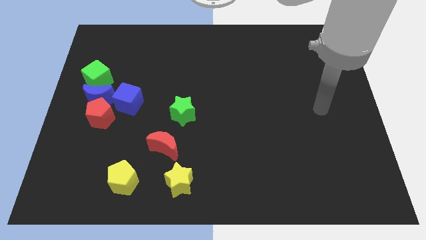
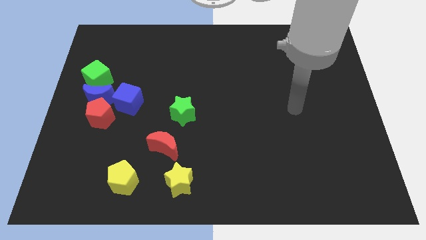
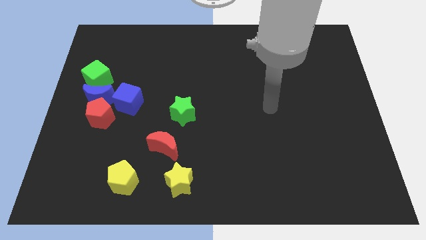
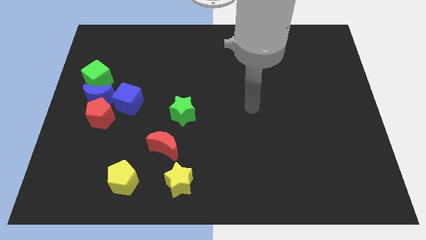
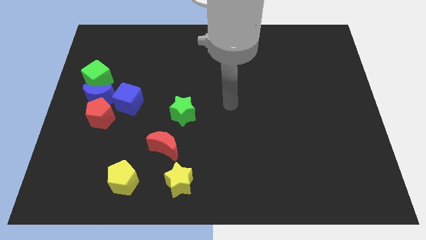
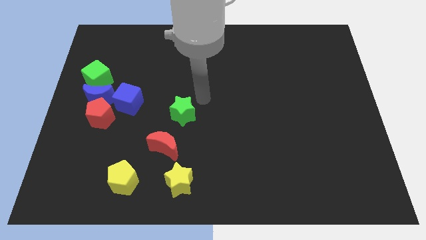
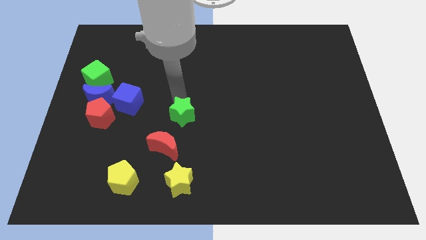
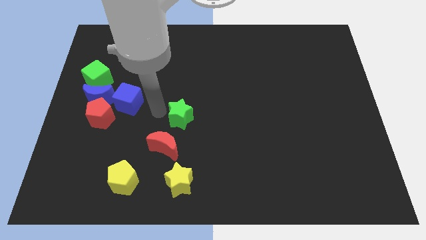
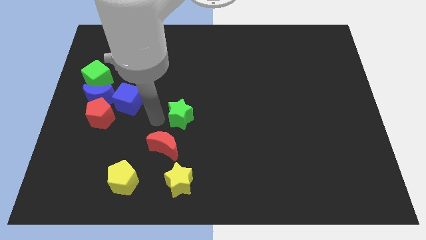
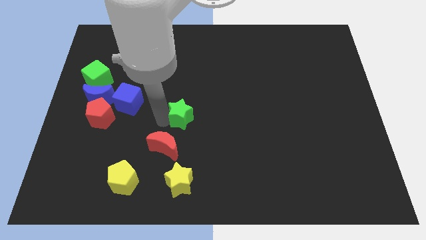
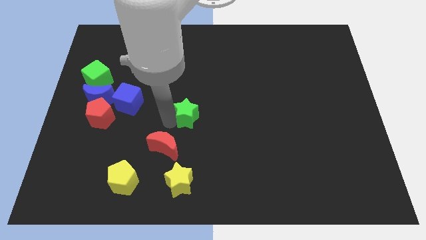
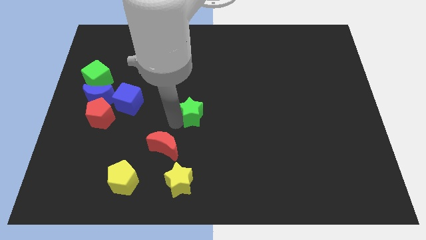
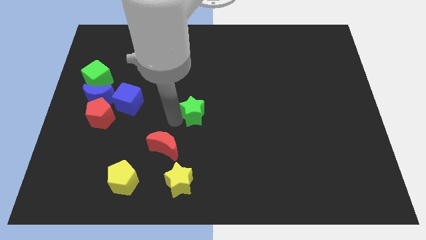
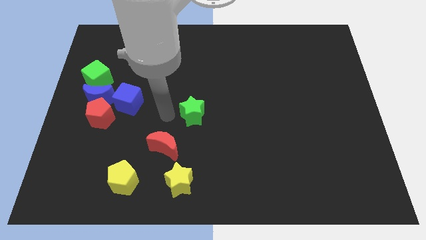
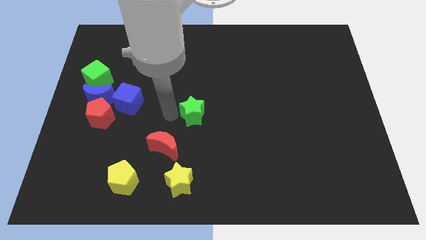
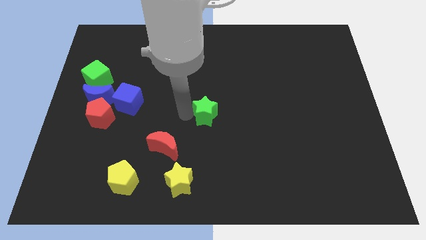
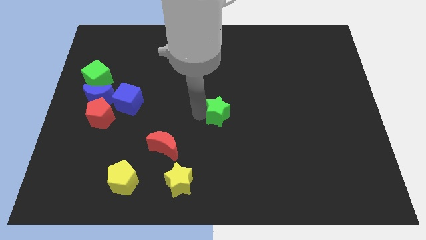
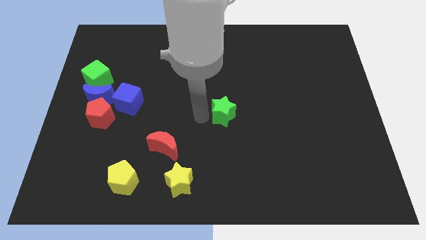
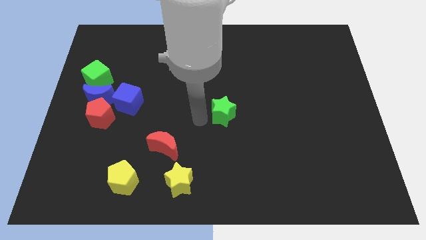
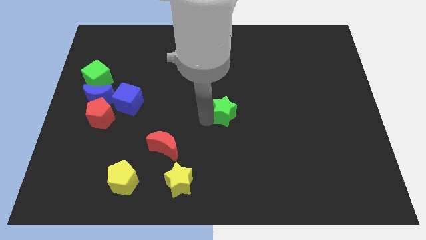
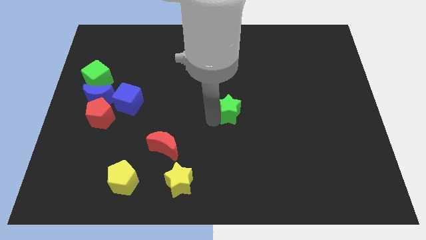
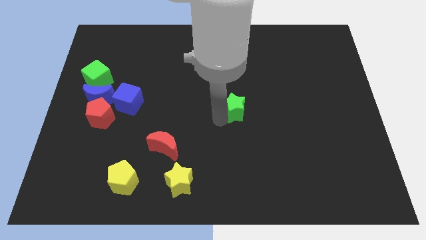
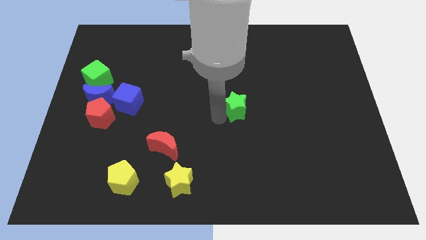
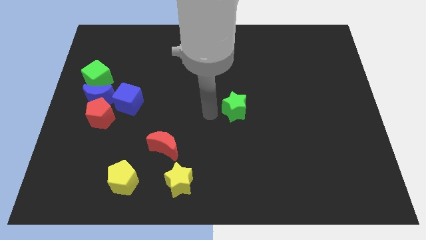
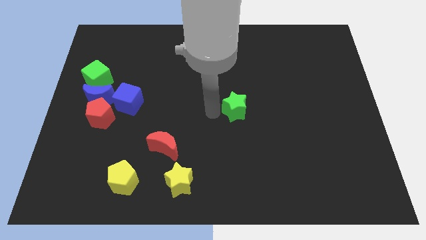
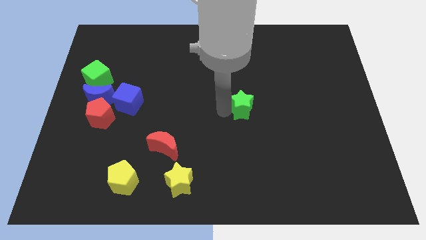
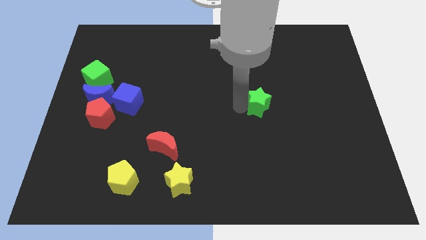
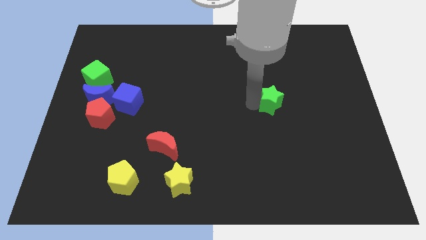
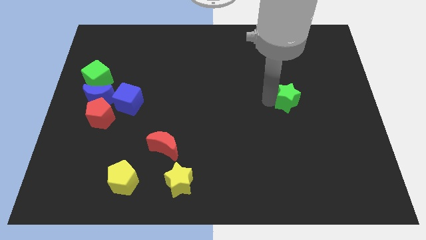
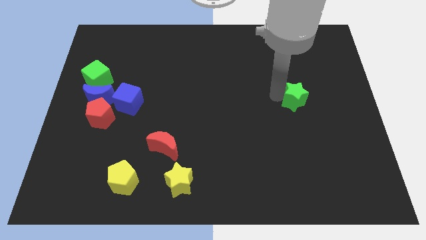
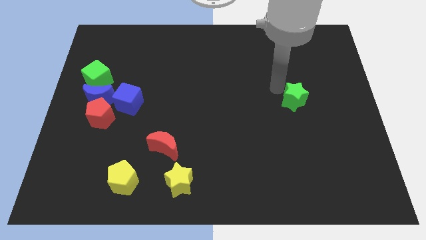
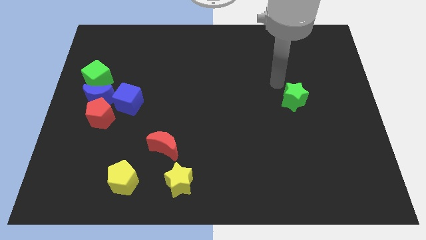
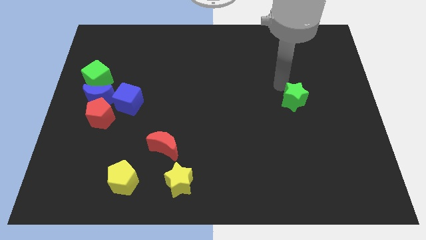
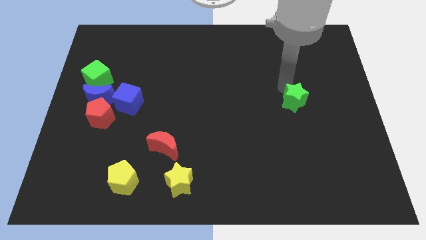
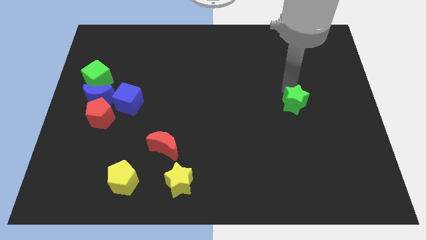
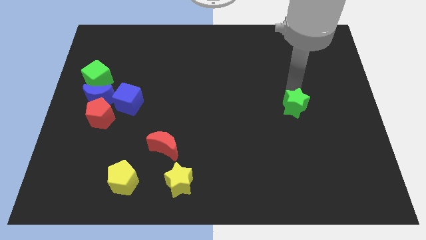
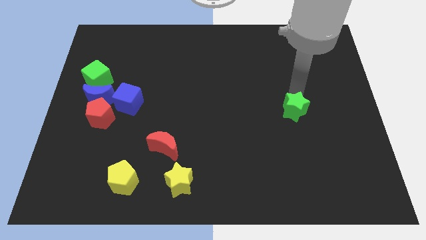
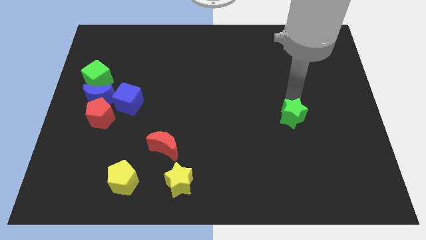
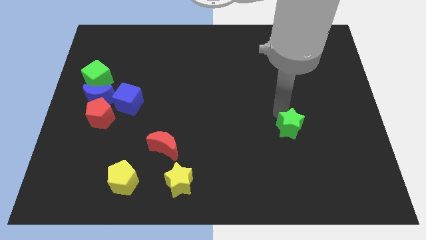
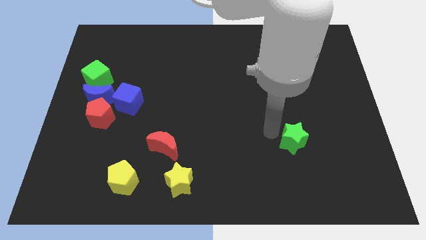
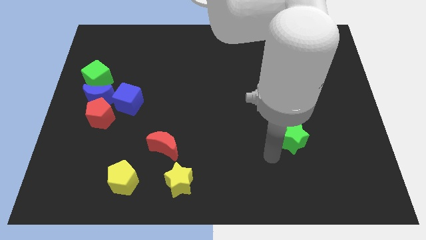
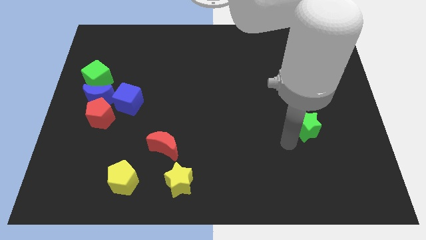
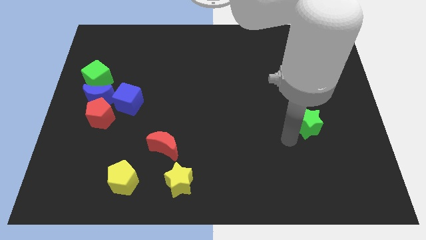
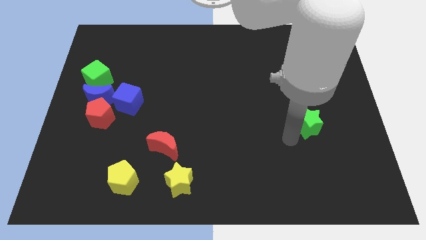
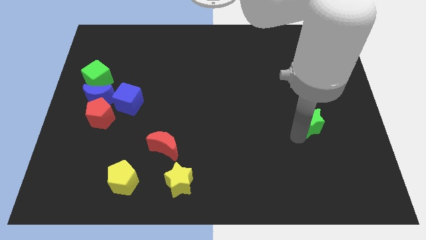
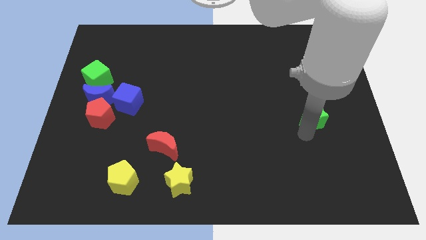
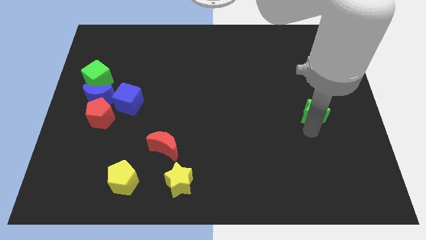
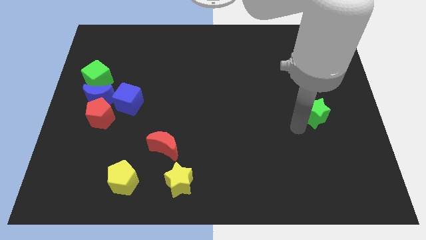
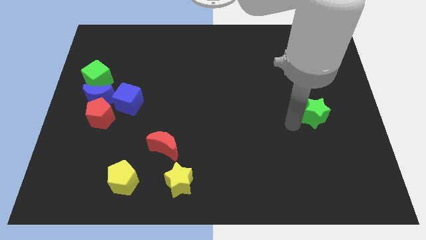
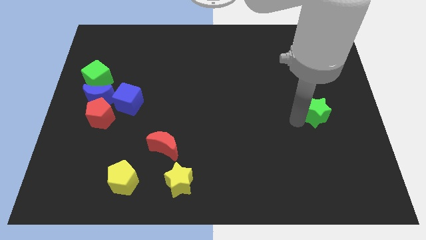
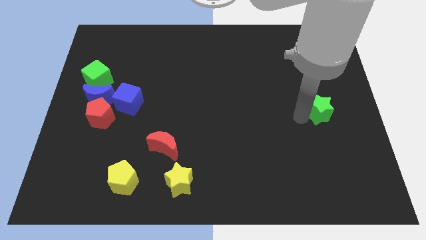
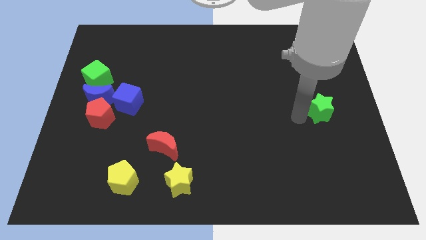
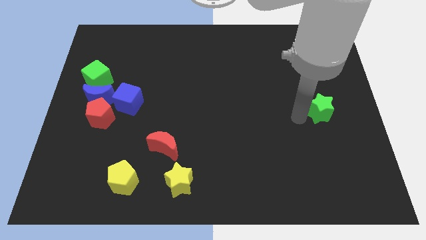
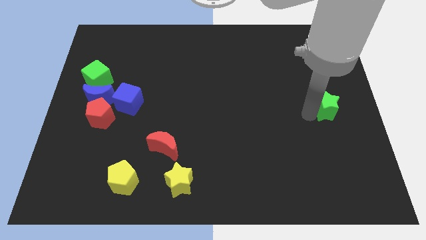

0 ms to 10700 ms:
slide the green star to the right side of the board

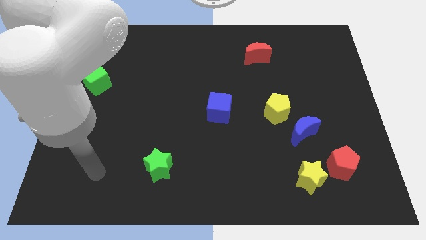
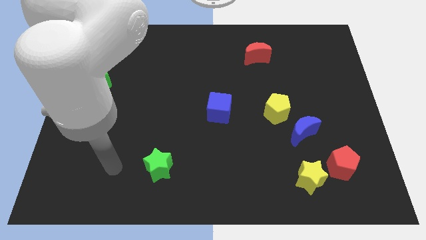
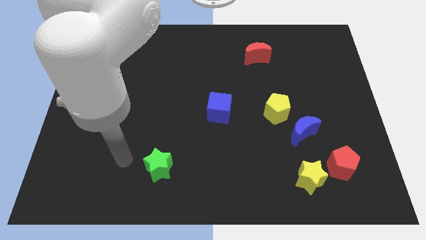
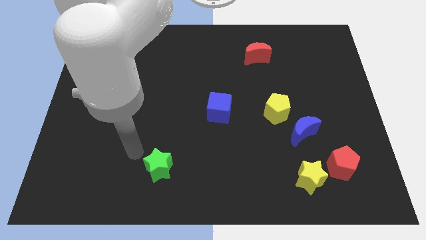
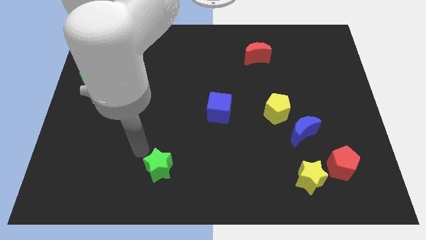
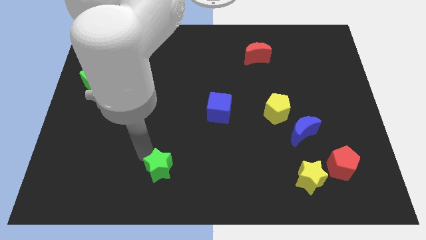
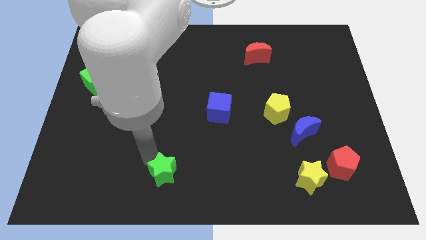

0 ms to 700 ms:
push the green star to the bottom side

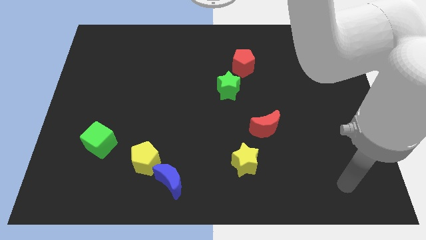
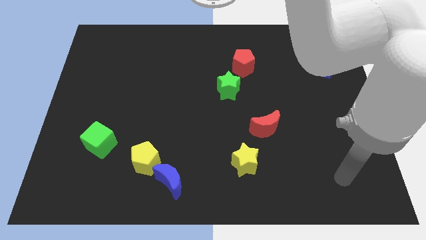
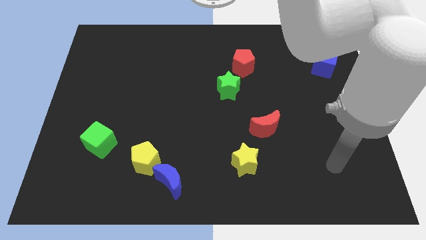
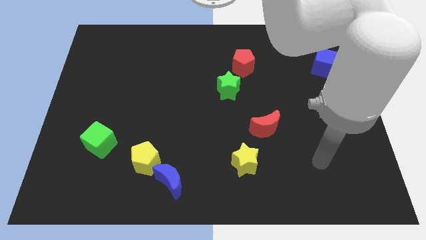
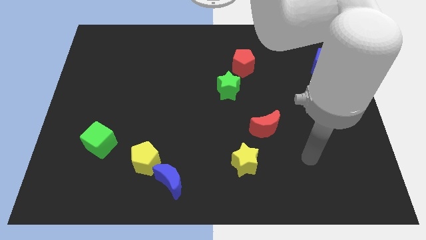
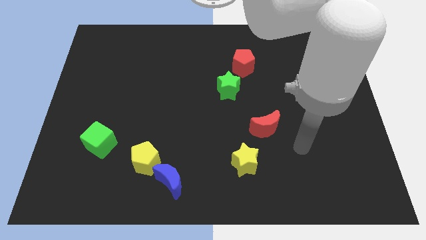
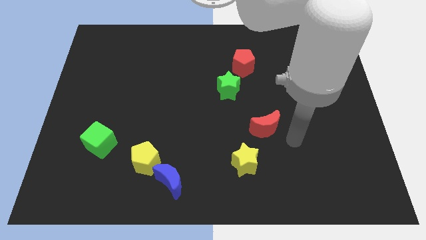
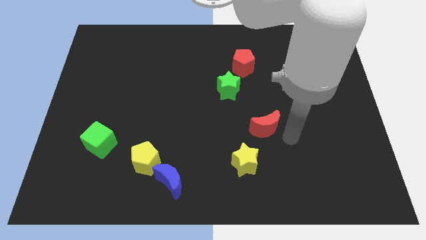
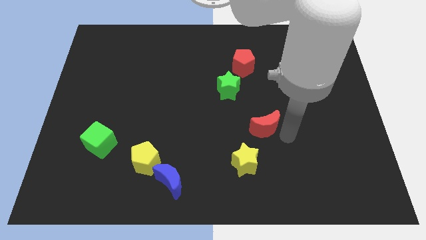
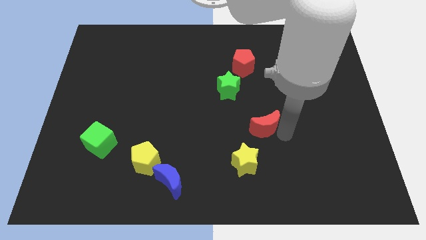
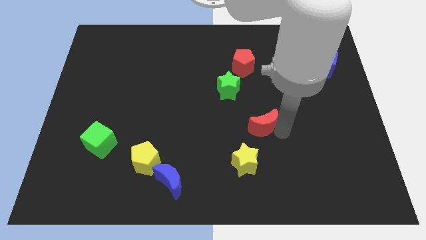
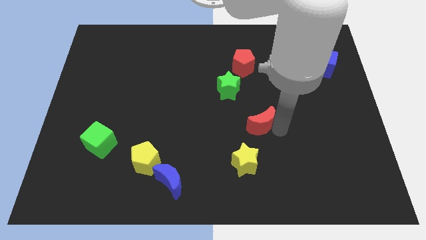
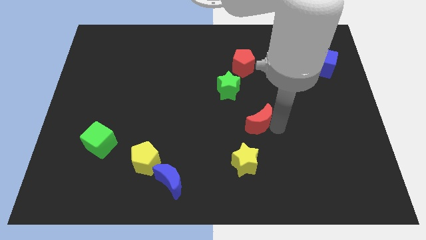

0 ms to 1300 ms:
push the red moon to the center
